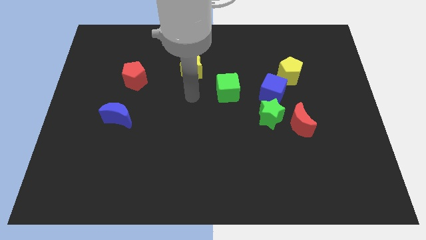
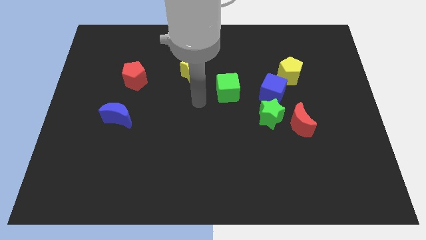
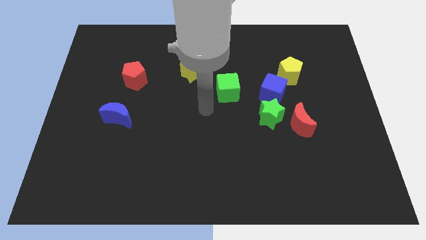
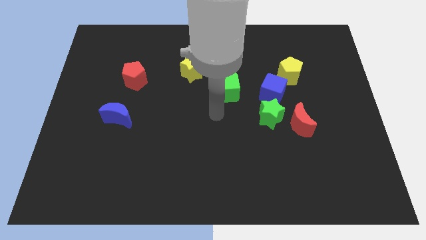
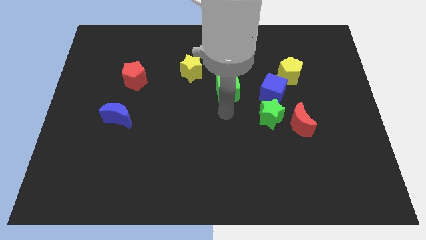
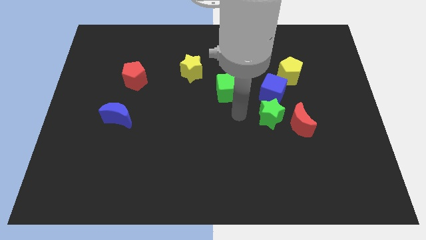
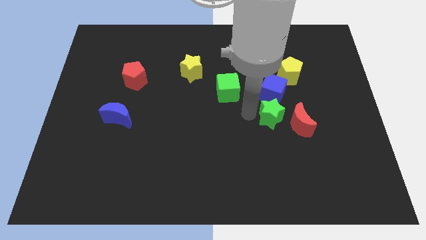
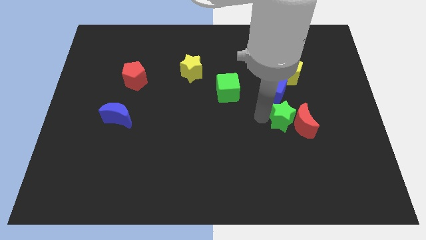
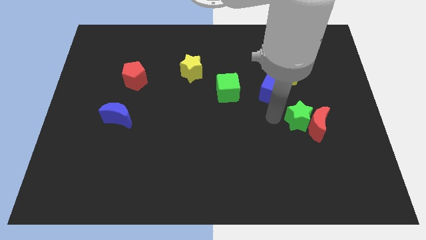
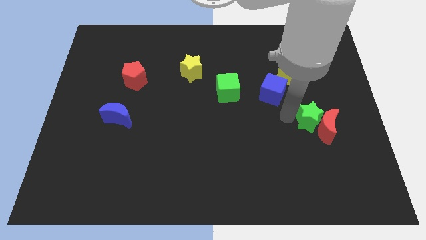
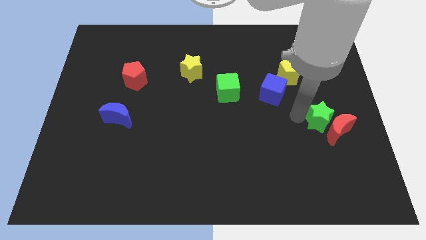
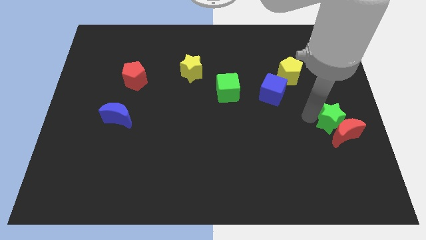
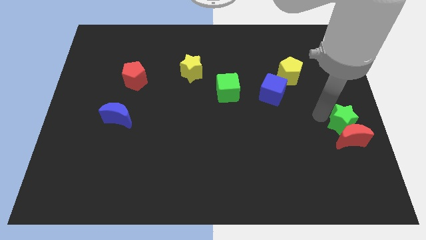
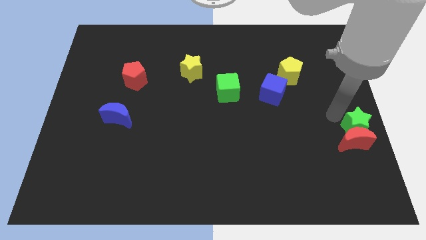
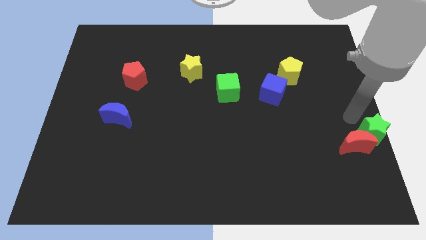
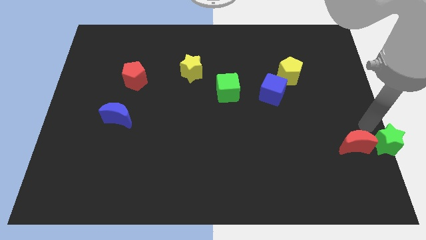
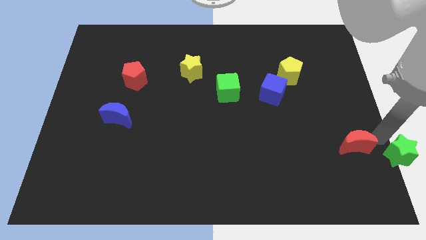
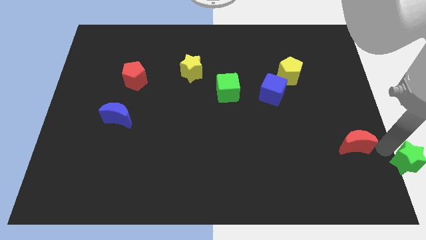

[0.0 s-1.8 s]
separate the red moon from the green star

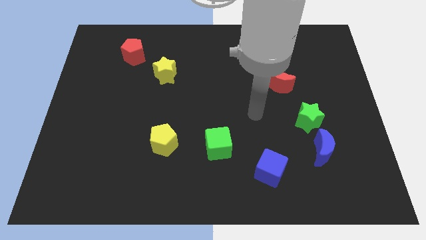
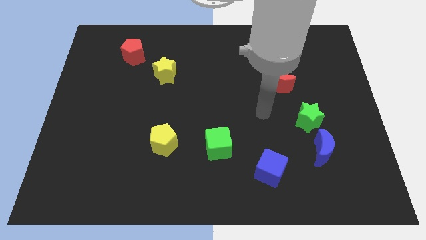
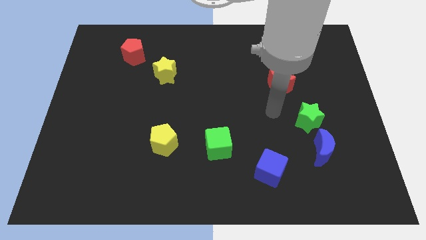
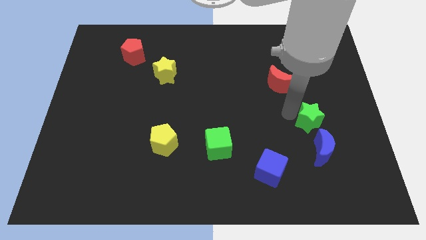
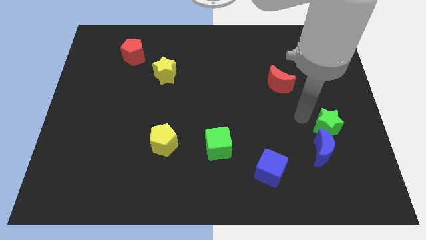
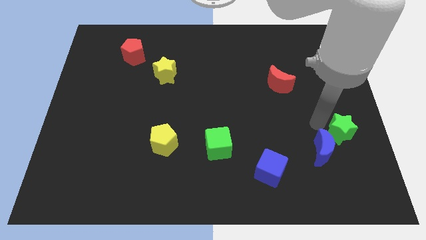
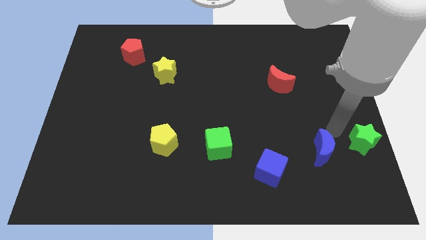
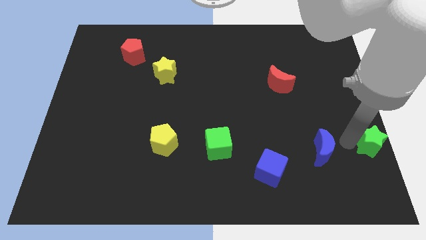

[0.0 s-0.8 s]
separate the blue moon from the green star

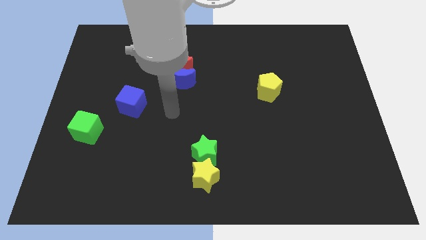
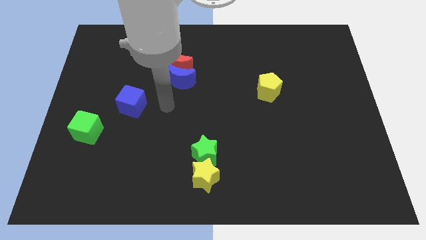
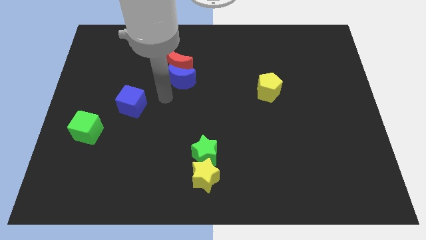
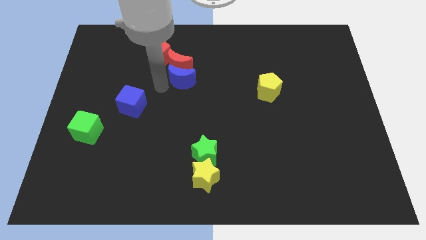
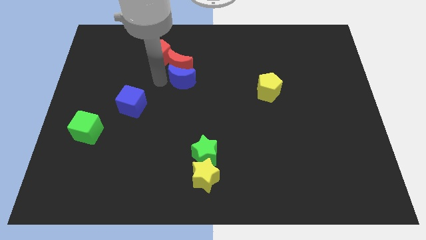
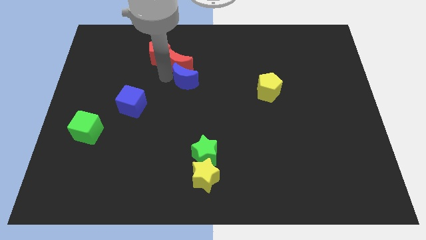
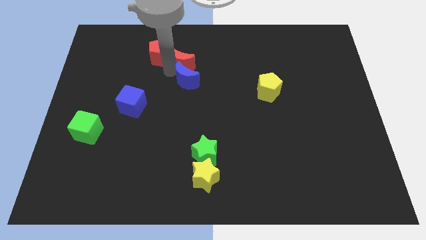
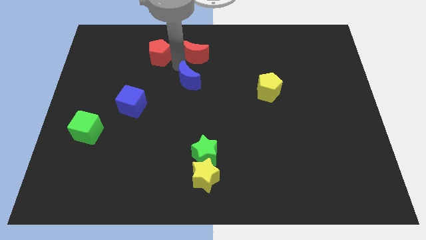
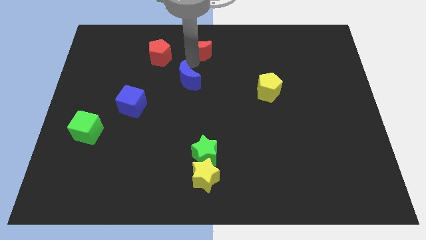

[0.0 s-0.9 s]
separate the blue moon from the red moon

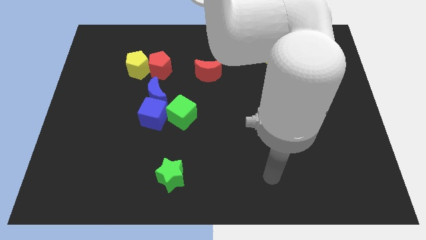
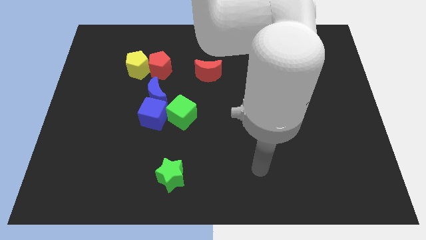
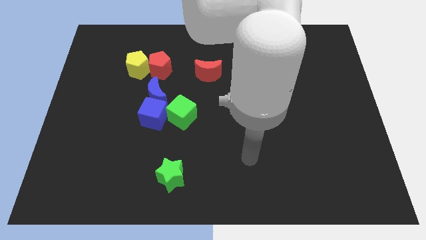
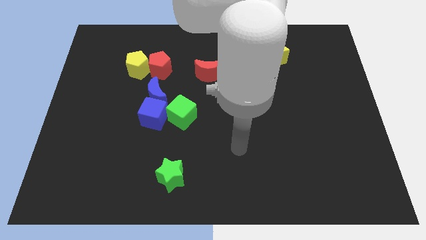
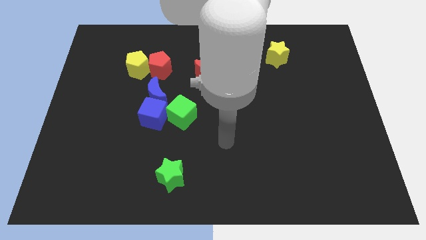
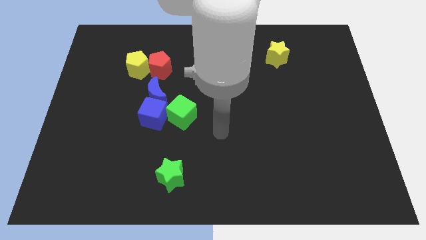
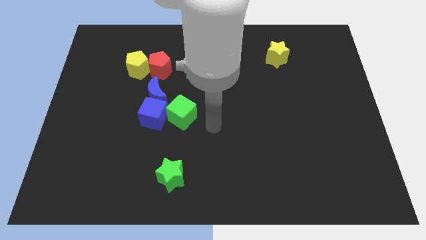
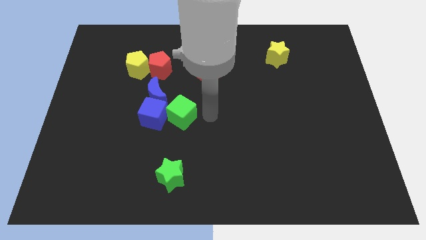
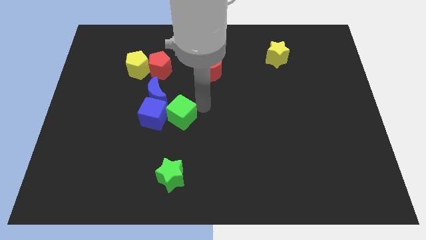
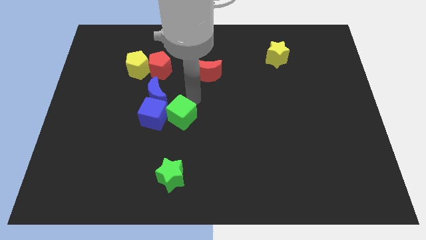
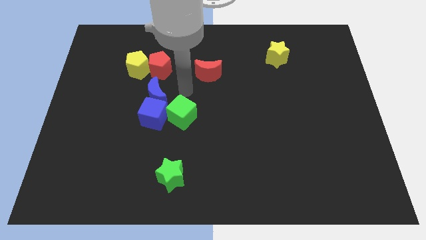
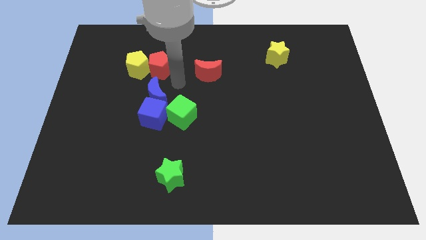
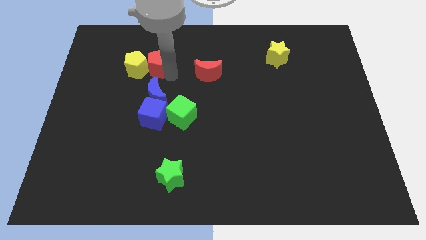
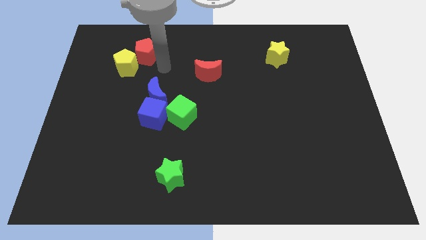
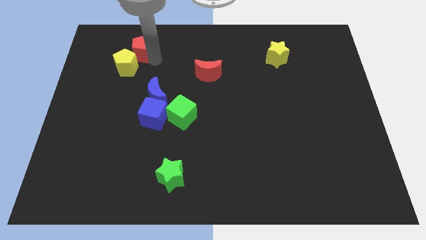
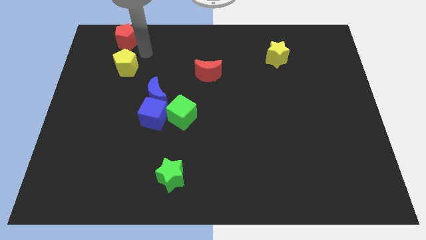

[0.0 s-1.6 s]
separate the yellow pentagon from the red pentagon

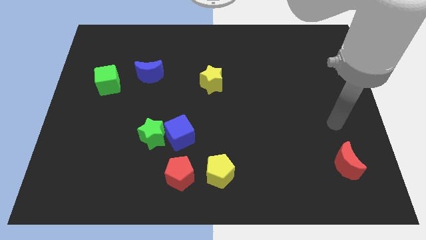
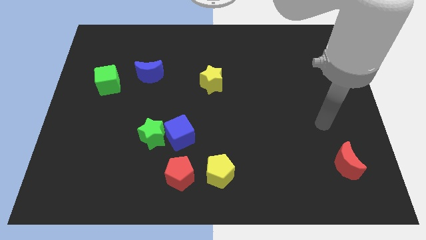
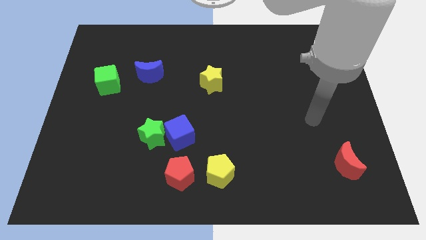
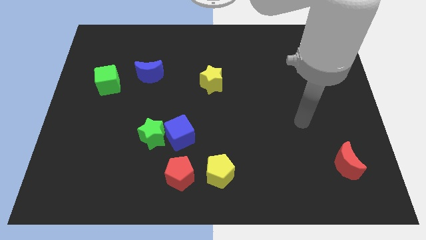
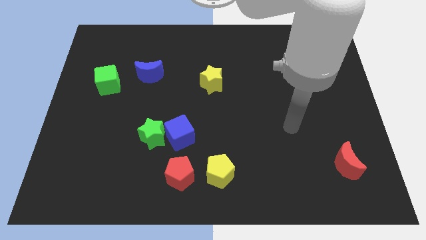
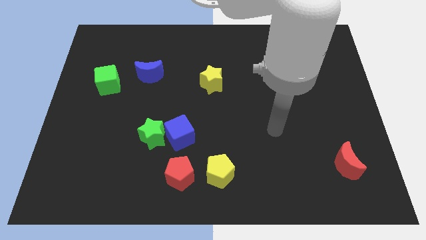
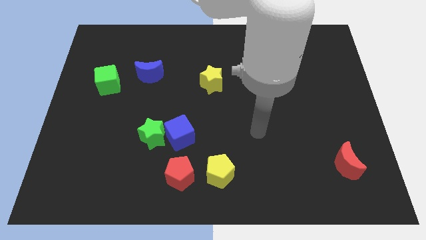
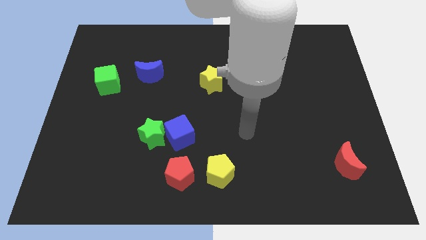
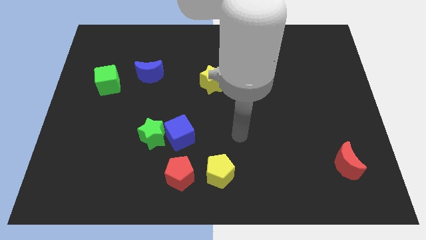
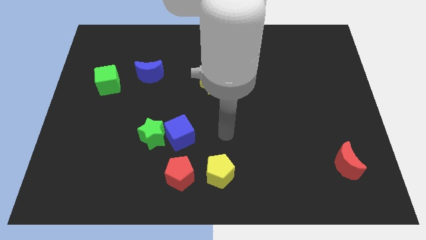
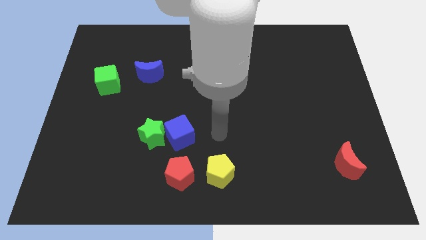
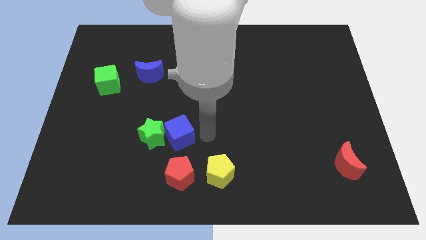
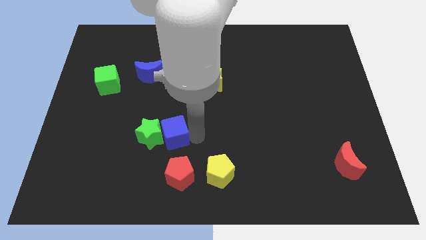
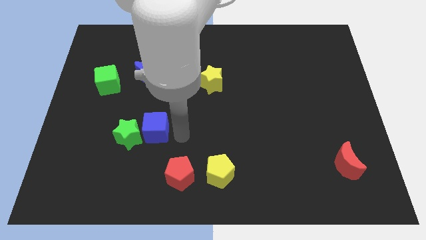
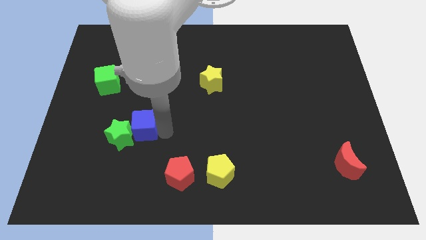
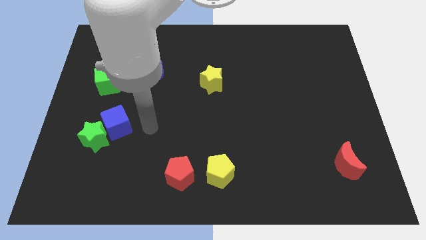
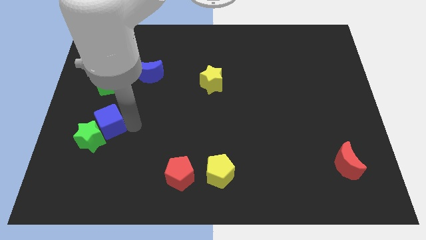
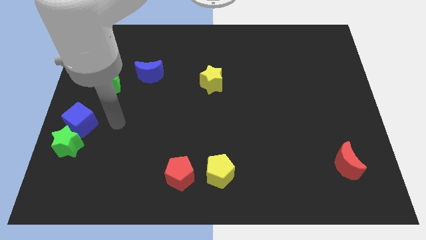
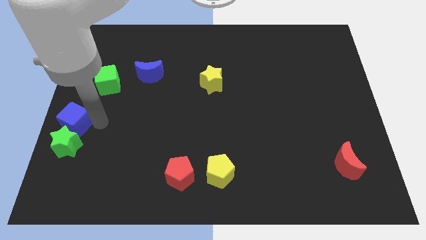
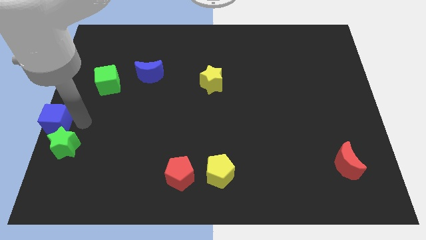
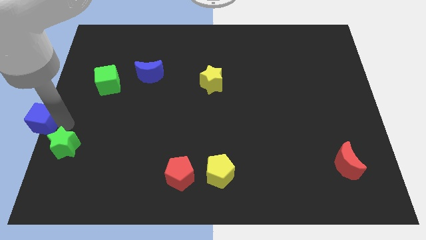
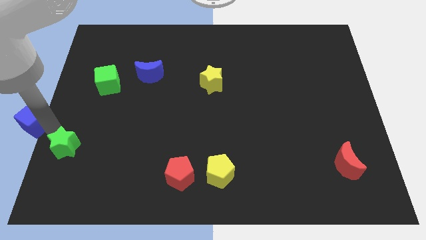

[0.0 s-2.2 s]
move the green star away from the blue cube

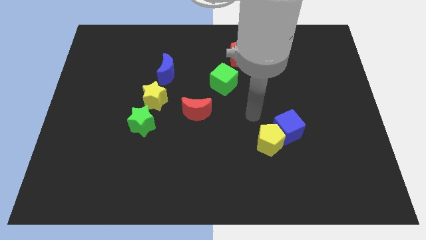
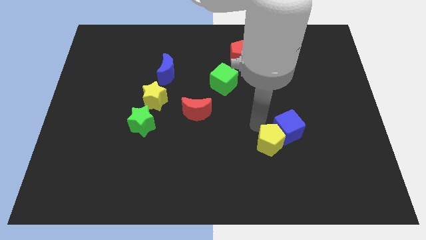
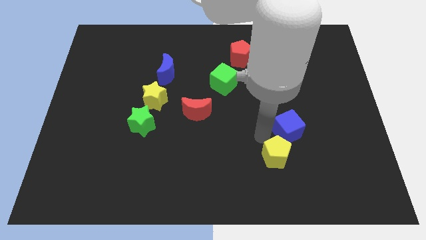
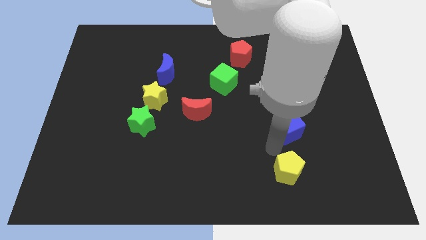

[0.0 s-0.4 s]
separate the blue cube from the yellow pentagon

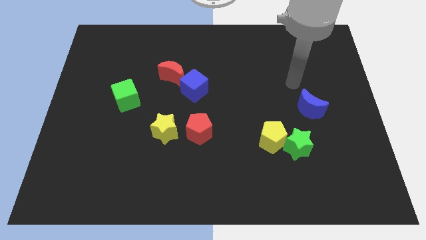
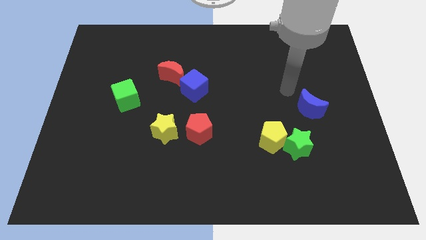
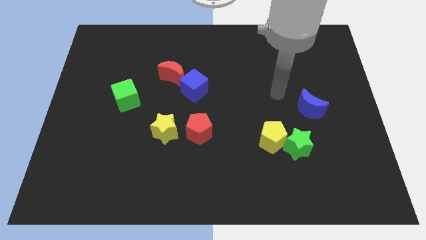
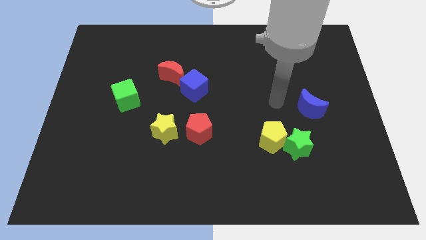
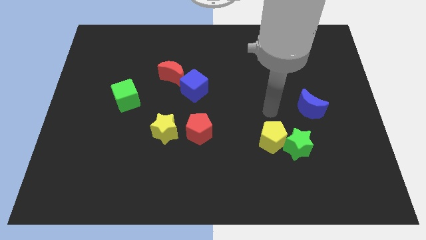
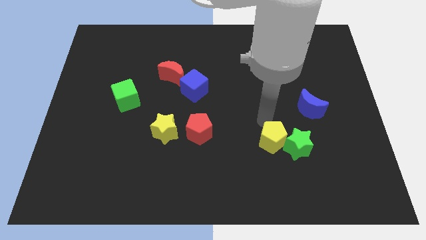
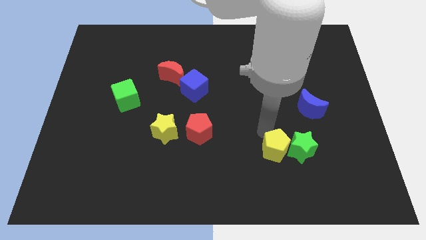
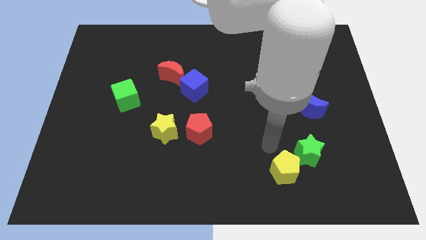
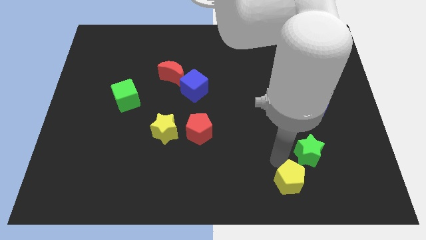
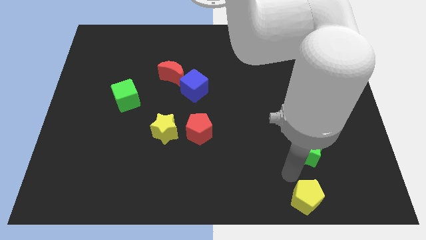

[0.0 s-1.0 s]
separate the green star from the yellow pentagon

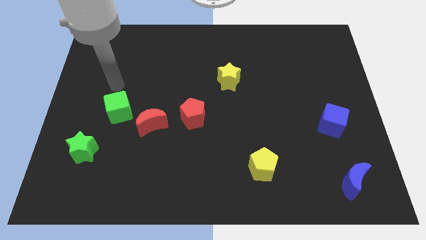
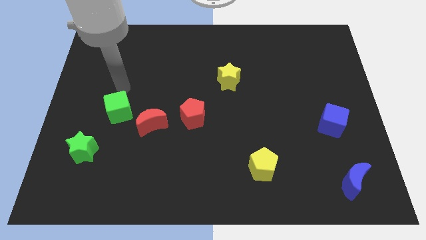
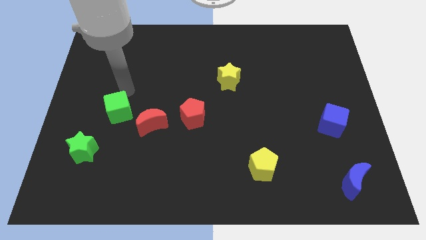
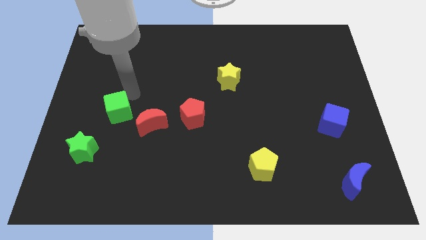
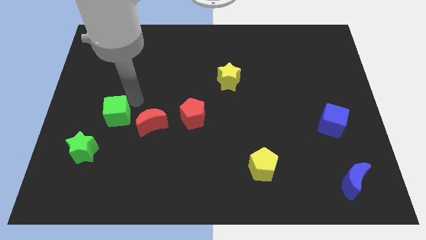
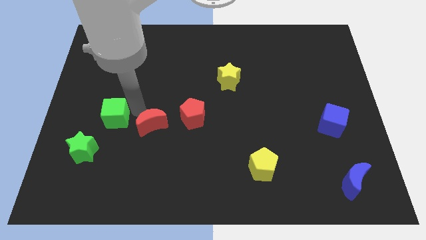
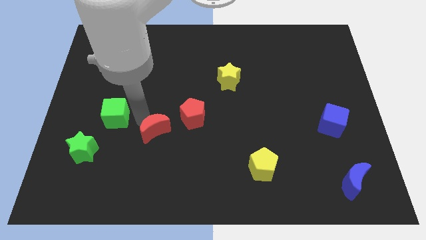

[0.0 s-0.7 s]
move the green cube away from the red moon
